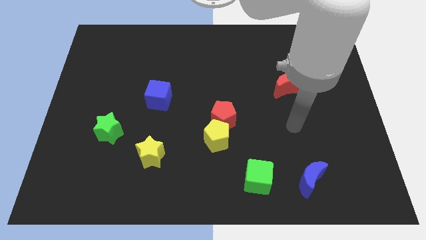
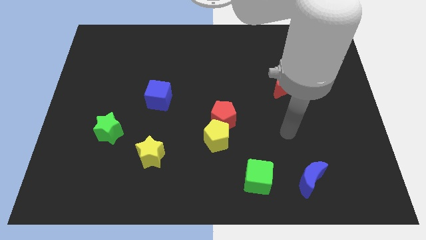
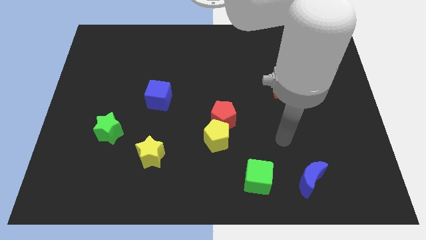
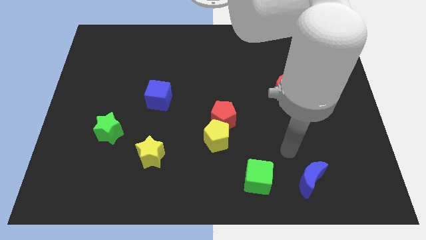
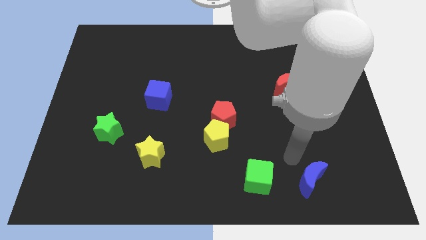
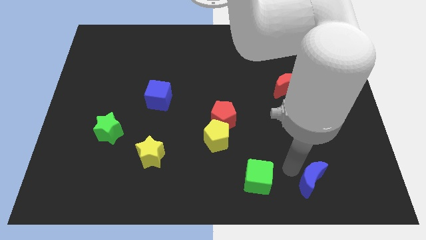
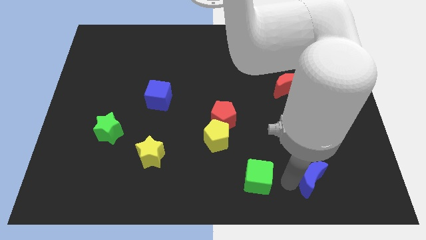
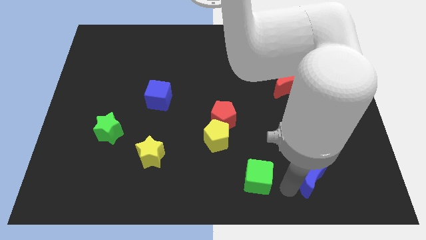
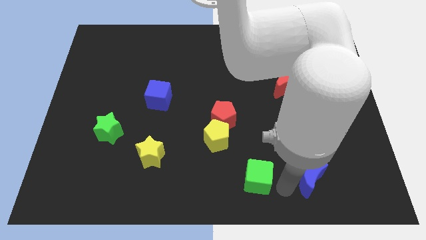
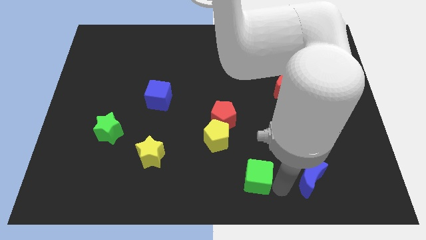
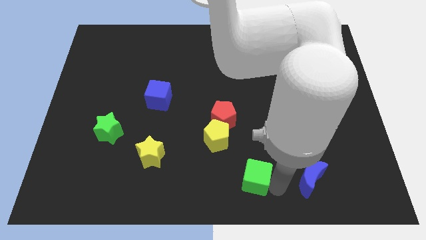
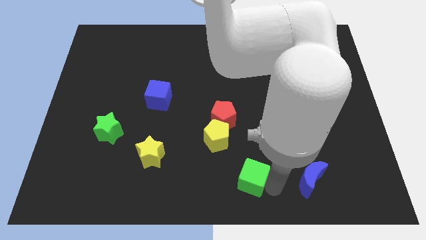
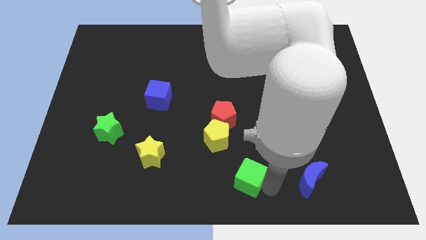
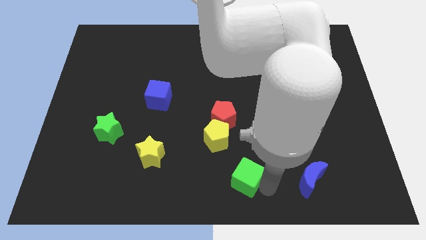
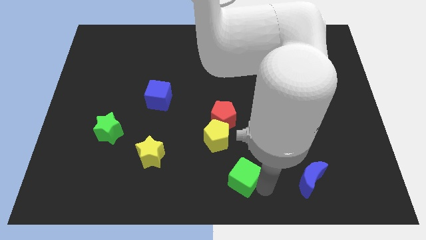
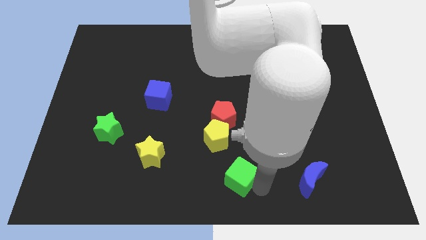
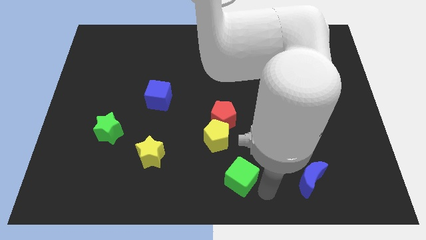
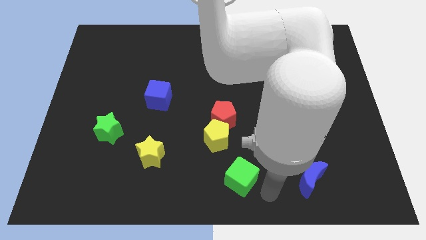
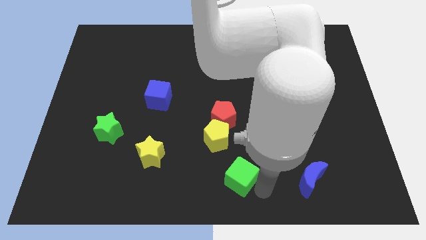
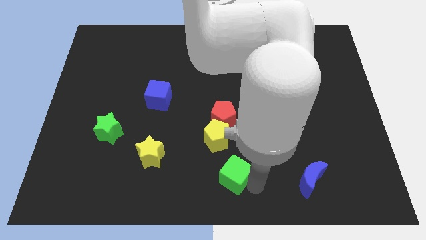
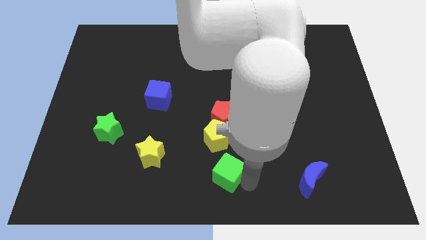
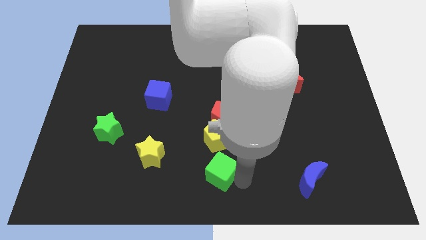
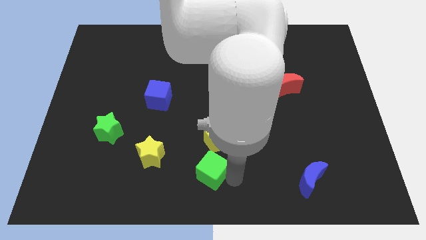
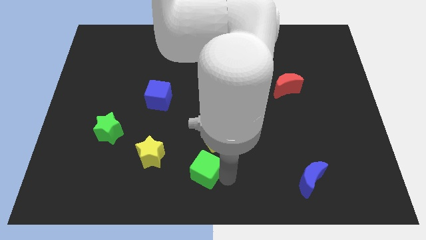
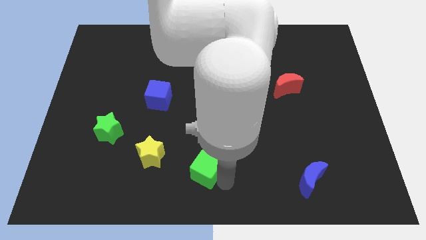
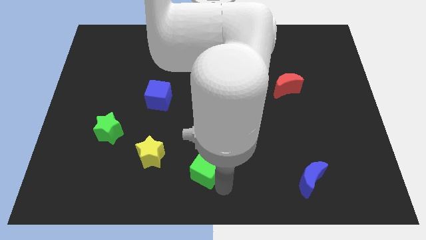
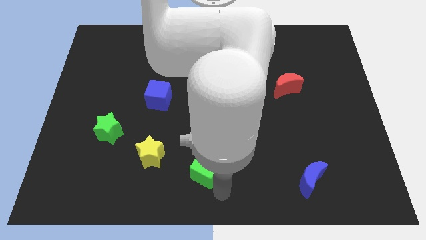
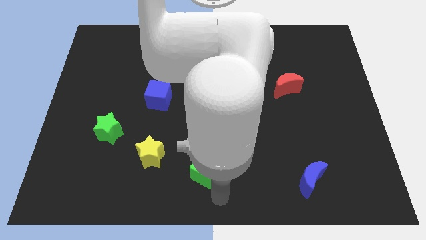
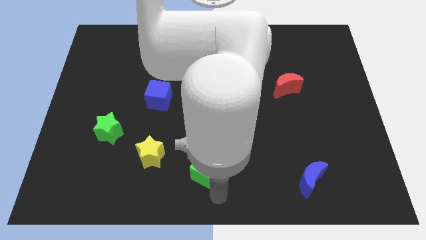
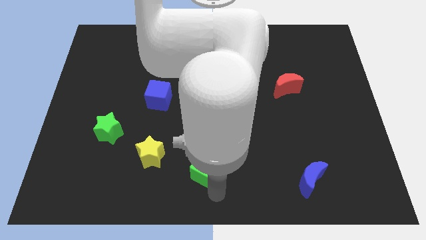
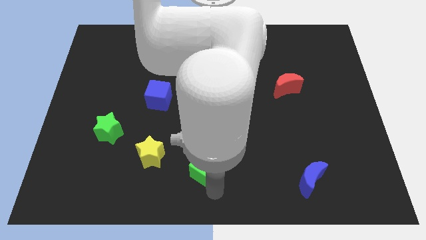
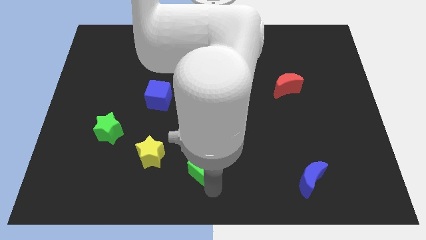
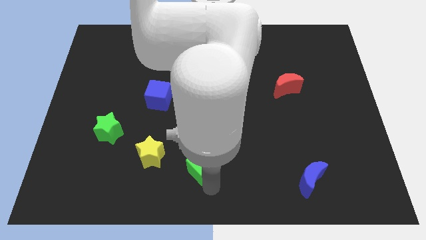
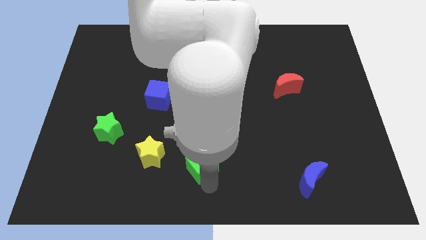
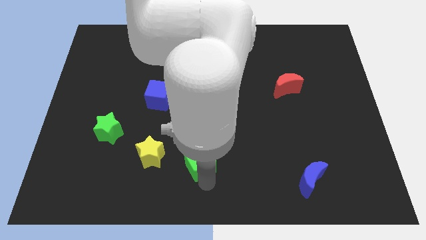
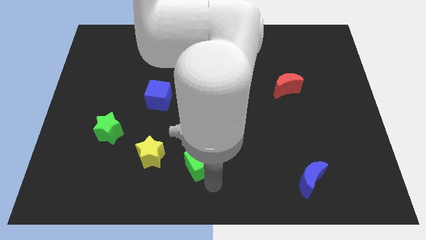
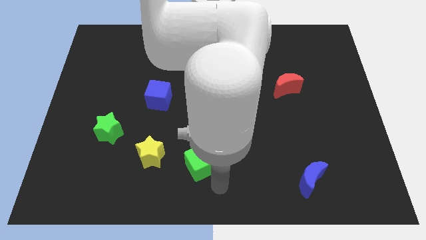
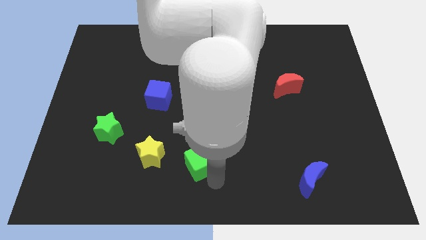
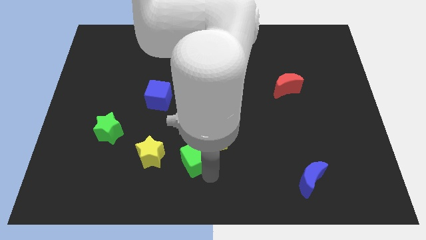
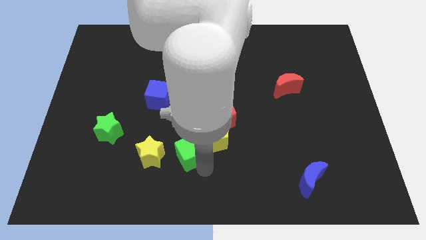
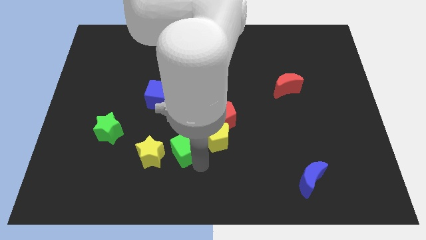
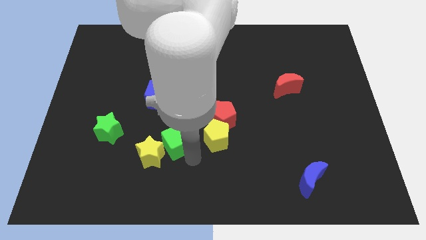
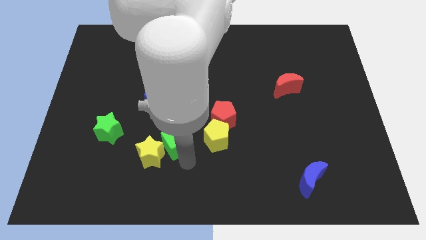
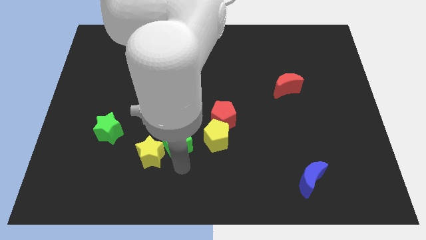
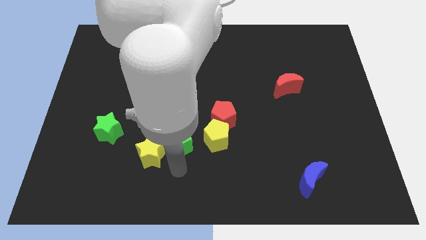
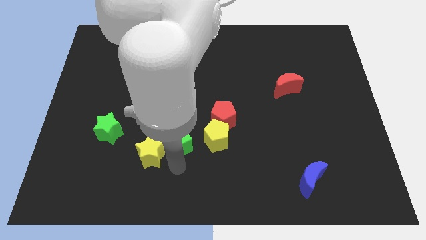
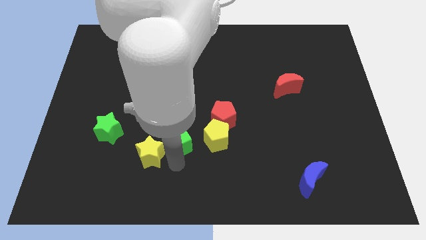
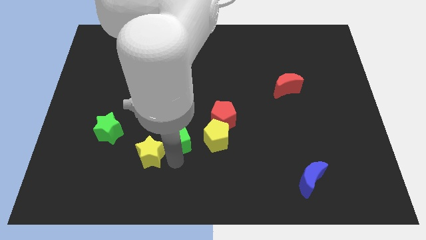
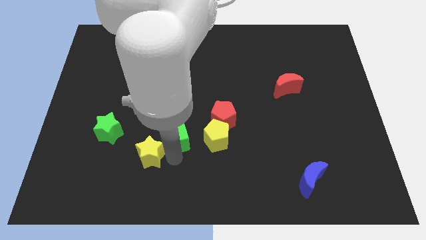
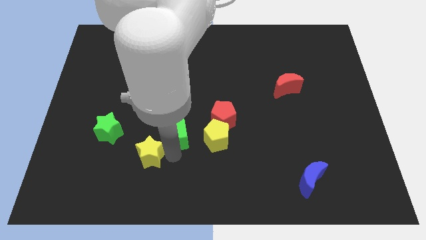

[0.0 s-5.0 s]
move the green cube to the left side of the red pentagon

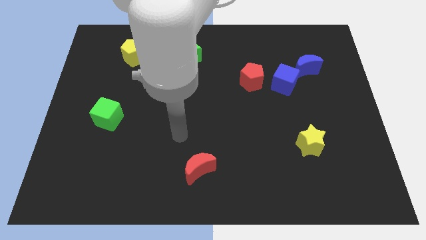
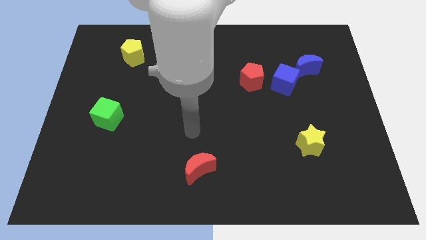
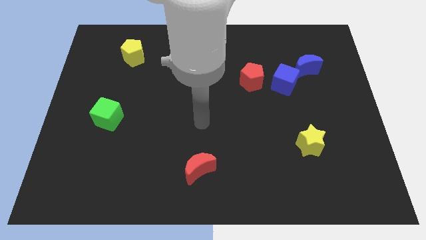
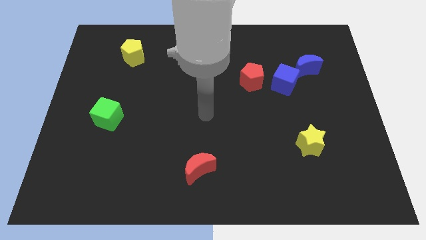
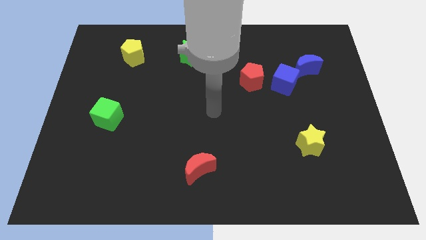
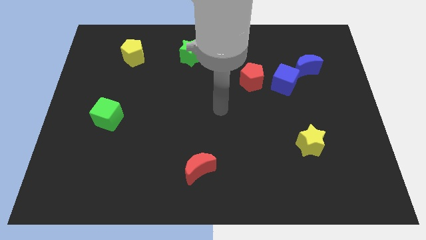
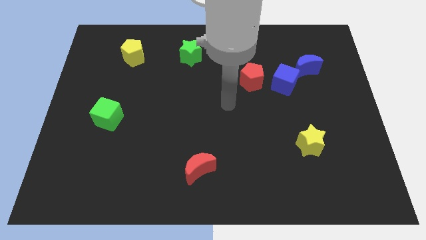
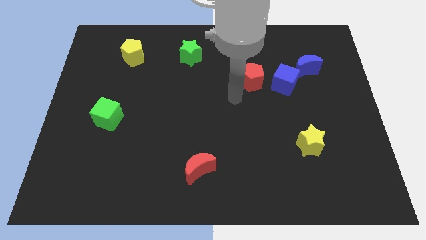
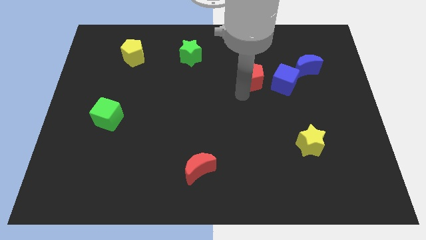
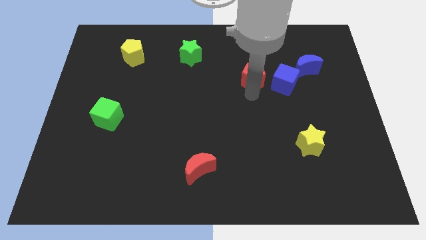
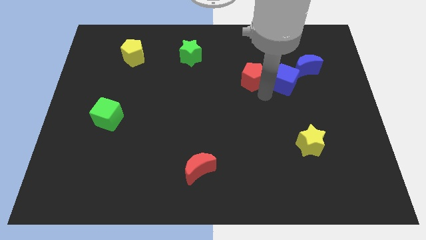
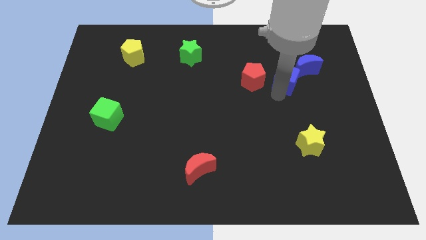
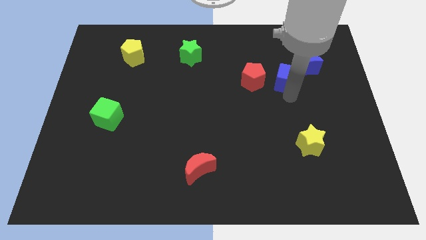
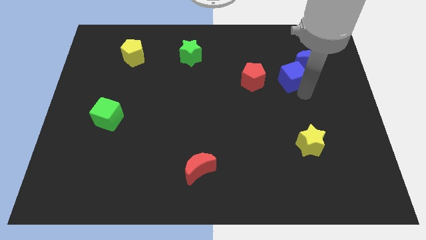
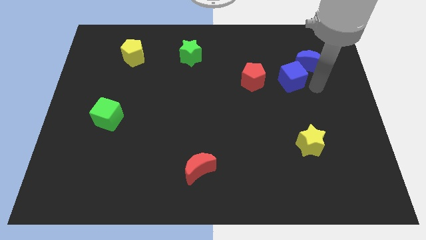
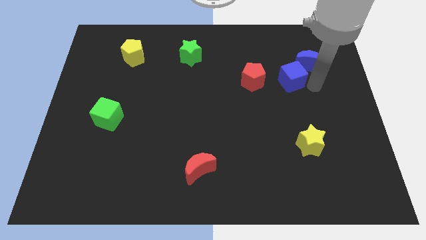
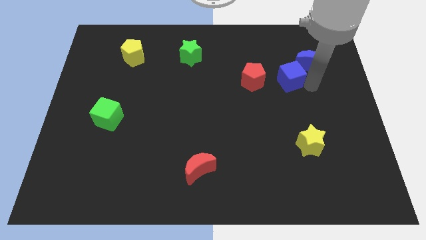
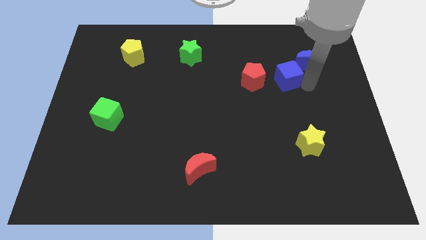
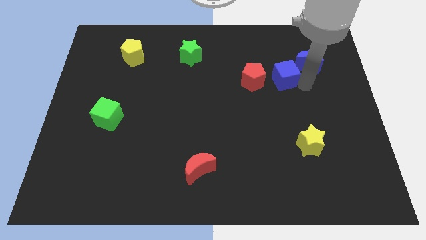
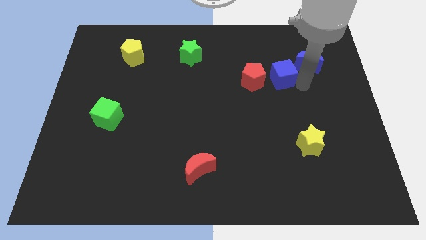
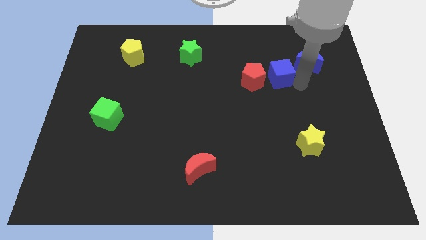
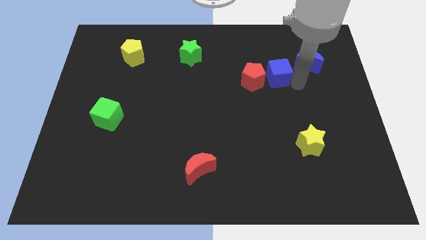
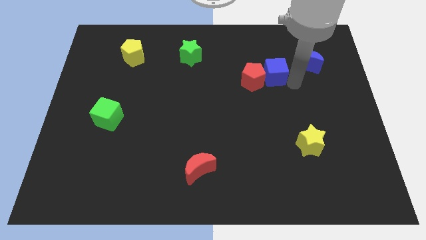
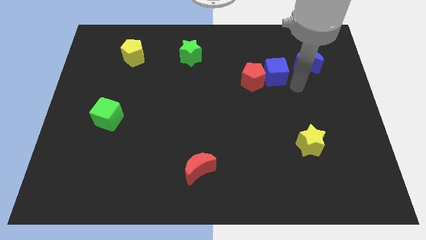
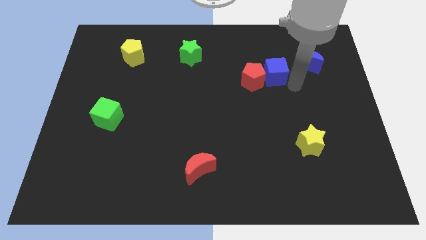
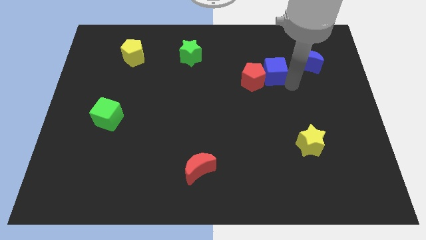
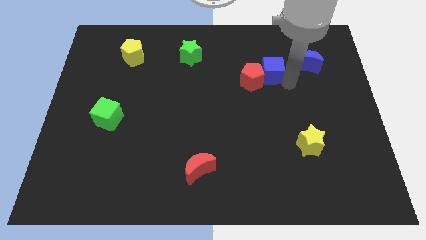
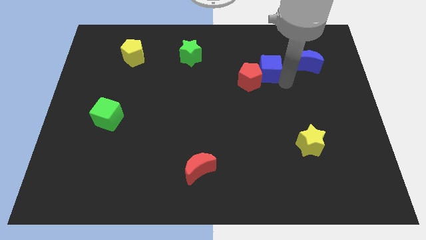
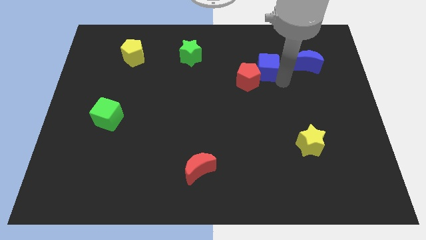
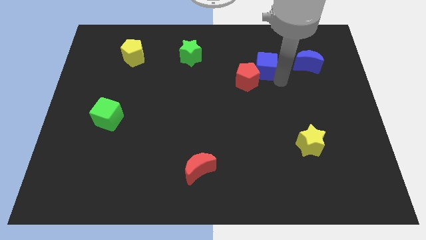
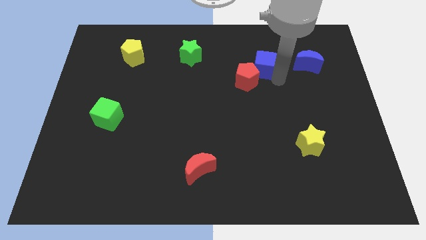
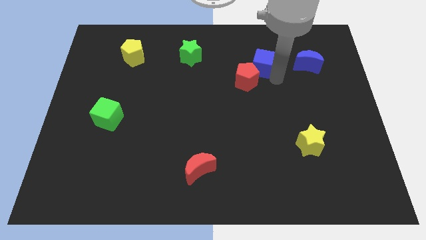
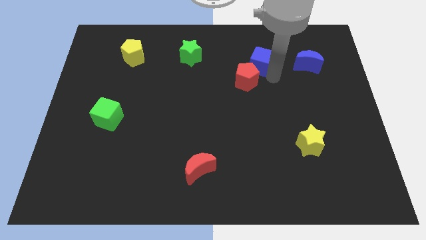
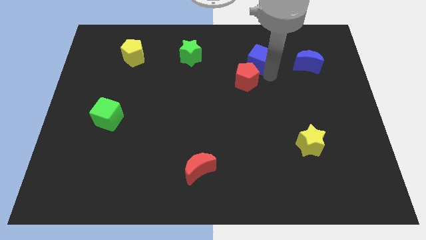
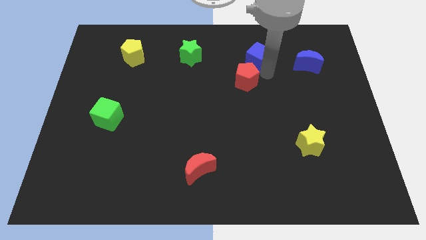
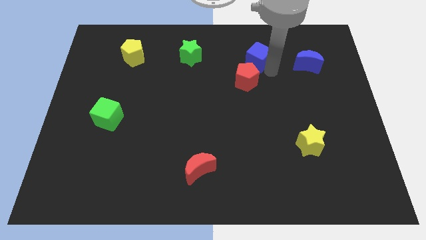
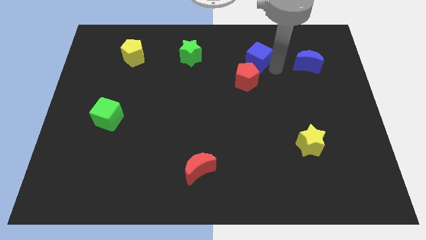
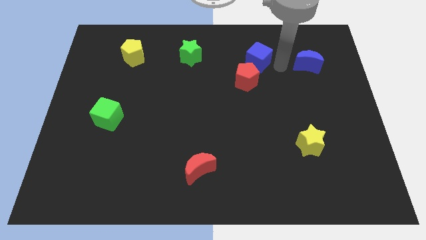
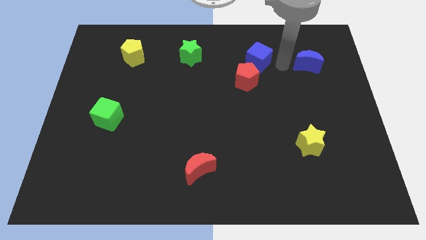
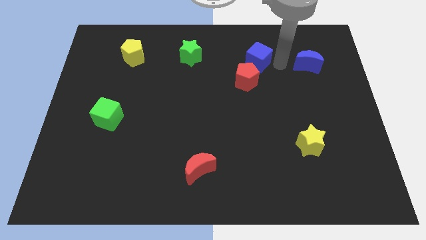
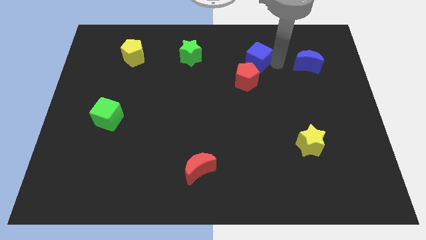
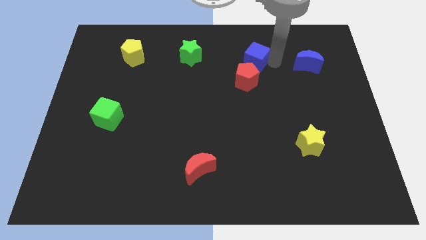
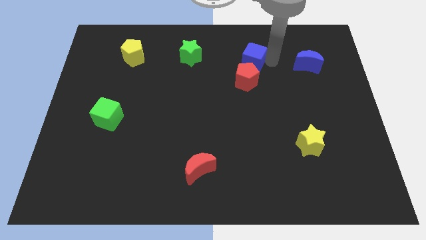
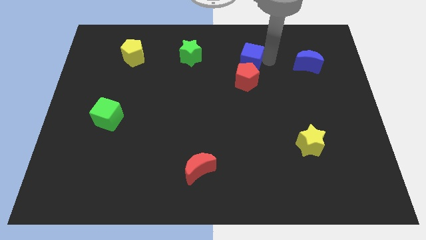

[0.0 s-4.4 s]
slide the blue cube to the right side of the green star
